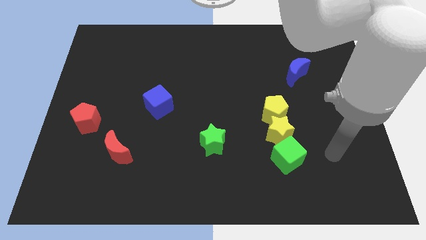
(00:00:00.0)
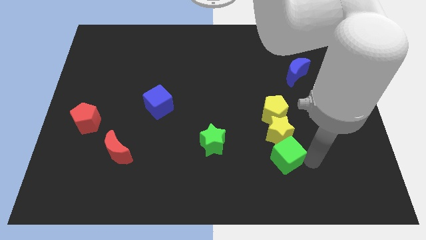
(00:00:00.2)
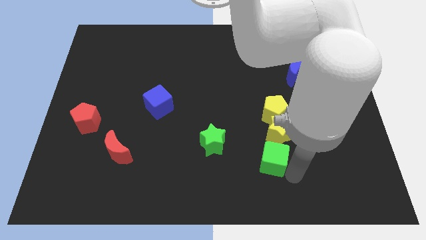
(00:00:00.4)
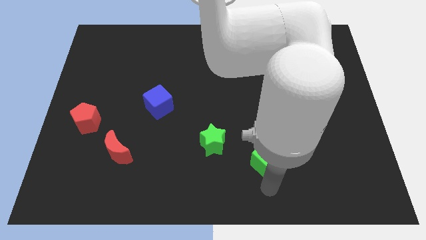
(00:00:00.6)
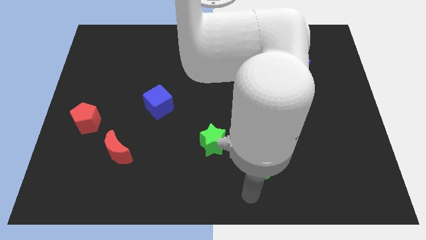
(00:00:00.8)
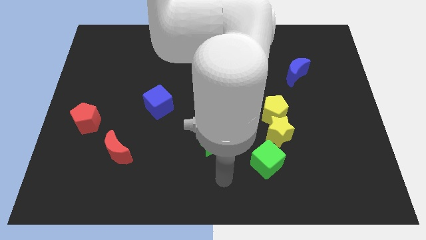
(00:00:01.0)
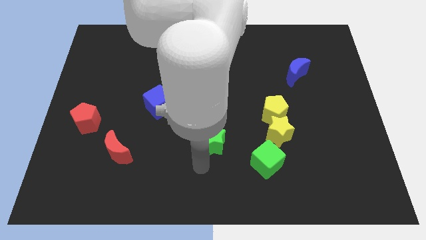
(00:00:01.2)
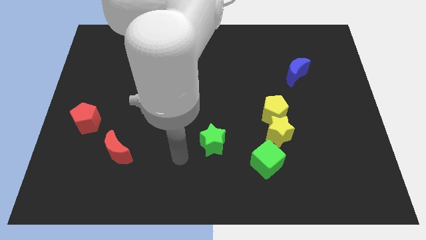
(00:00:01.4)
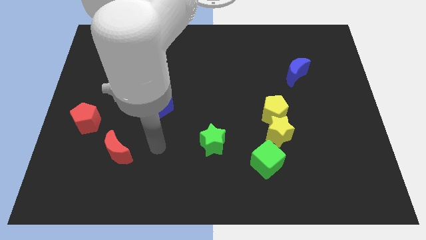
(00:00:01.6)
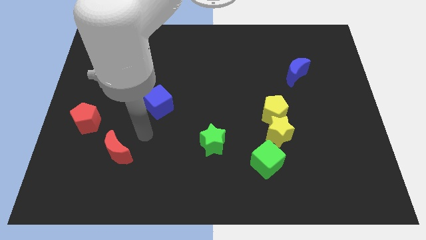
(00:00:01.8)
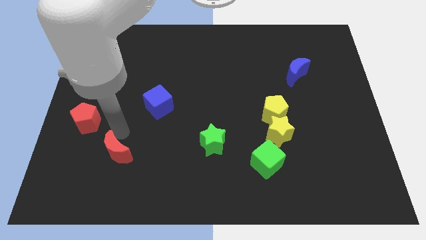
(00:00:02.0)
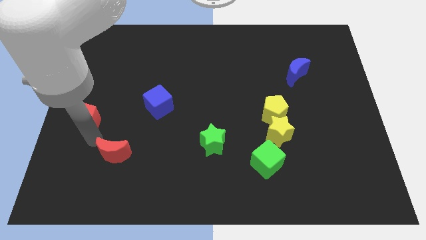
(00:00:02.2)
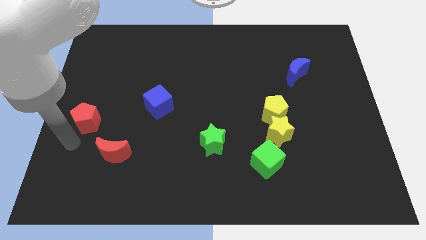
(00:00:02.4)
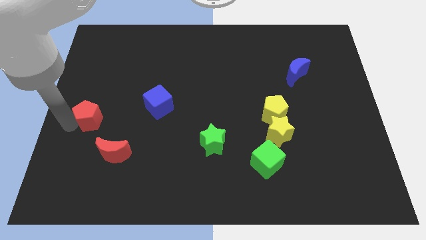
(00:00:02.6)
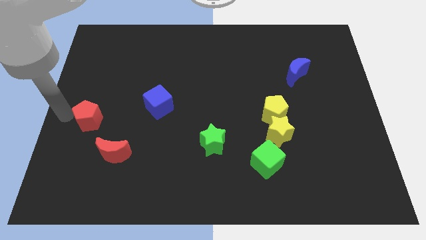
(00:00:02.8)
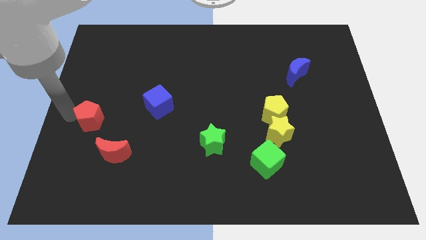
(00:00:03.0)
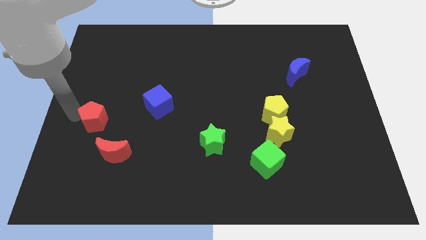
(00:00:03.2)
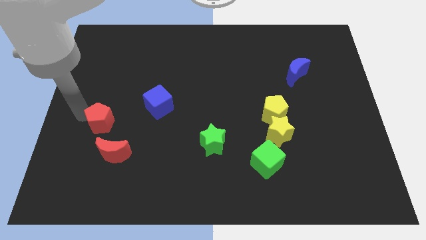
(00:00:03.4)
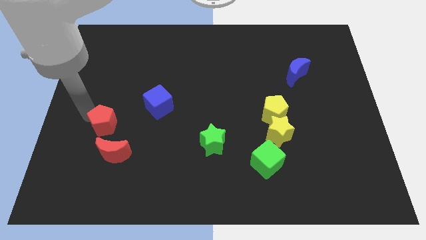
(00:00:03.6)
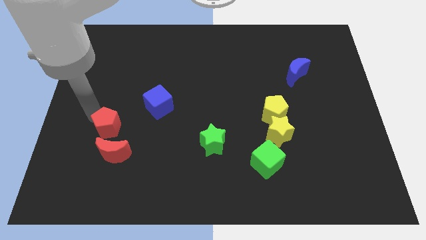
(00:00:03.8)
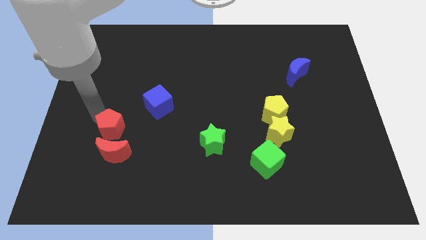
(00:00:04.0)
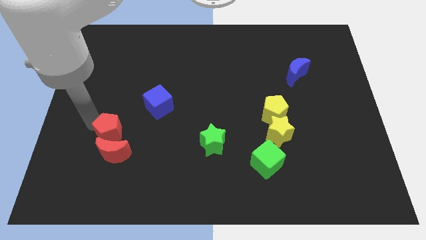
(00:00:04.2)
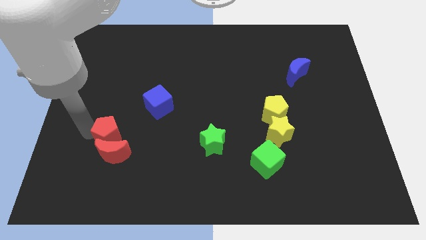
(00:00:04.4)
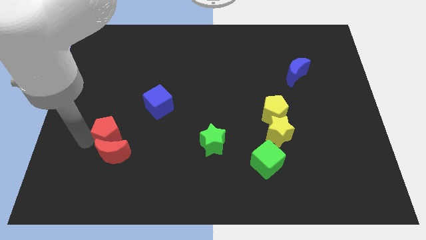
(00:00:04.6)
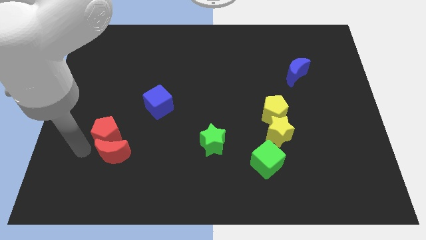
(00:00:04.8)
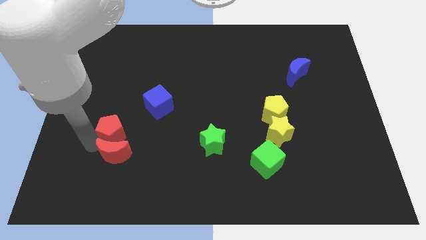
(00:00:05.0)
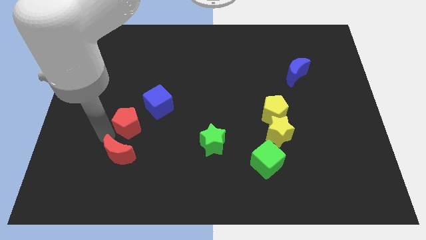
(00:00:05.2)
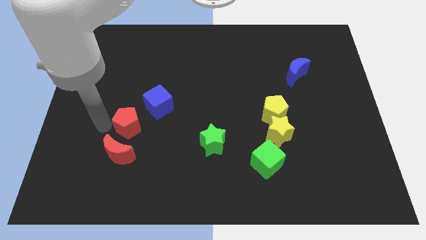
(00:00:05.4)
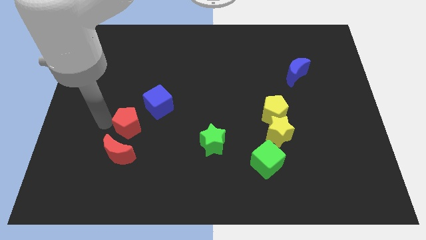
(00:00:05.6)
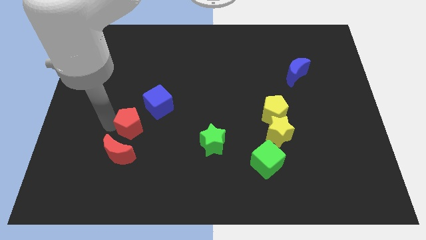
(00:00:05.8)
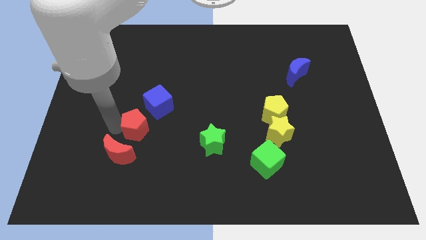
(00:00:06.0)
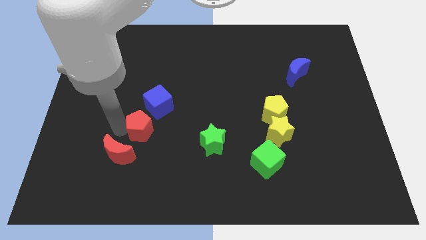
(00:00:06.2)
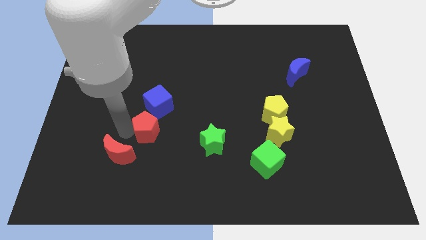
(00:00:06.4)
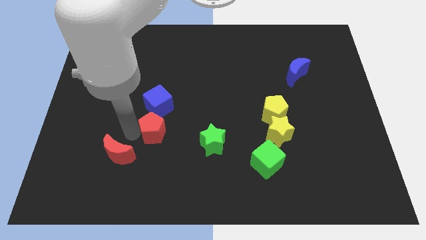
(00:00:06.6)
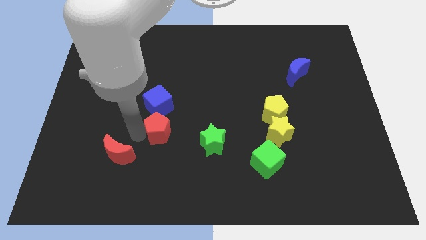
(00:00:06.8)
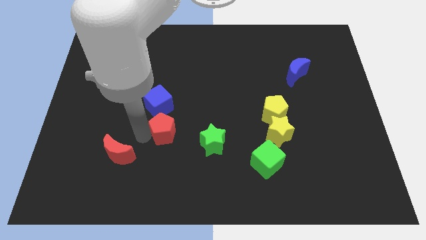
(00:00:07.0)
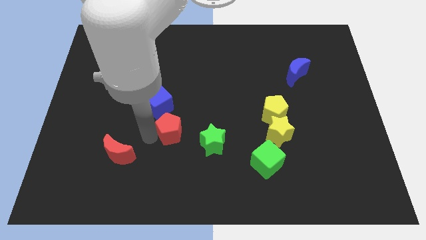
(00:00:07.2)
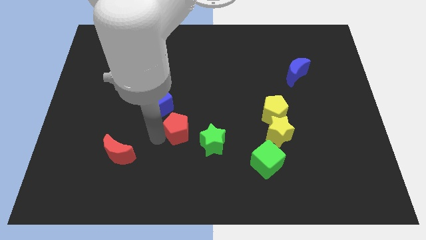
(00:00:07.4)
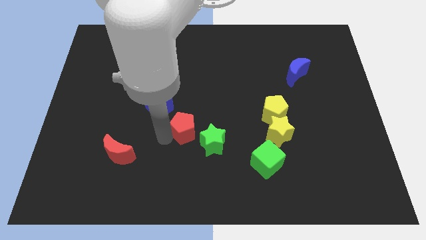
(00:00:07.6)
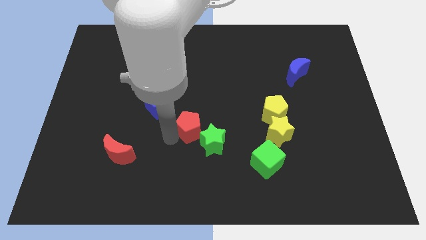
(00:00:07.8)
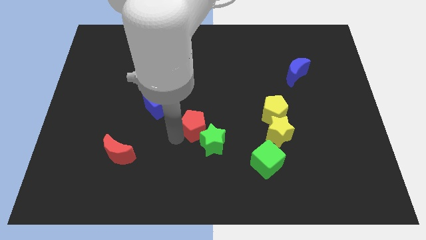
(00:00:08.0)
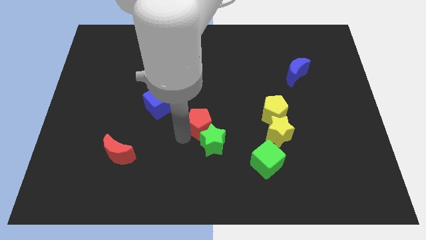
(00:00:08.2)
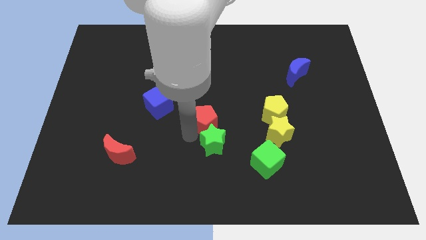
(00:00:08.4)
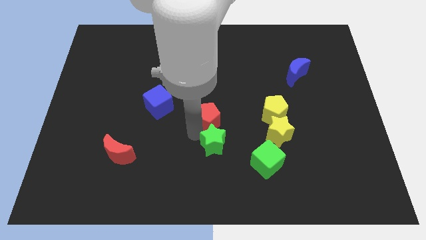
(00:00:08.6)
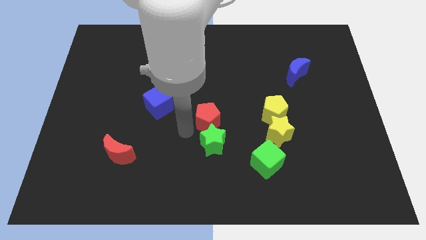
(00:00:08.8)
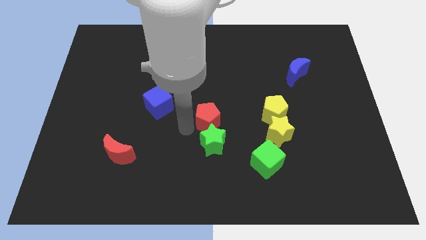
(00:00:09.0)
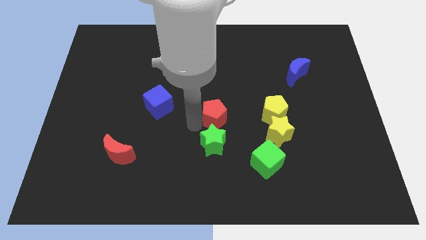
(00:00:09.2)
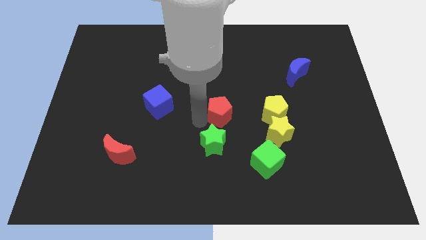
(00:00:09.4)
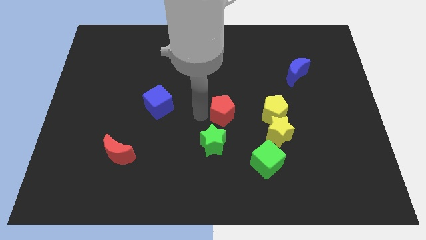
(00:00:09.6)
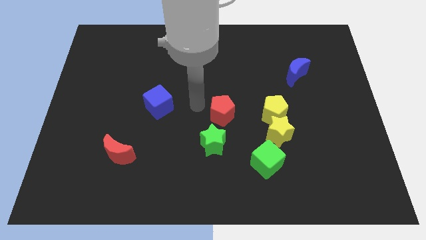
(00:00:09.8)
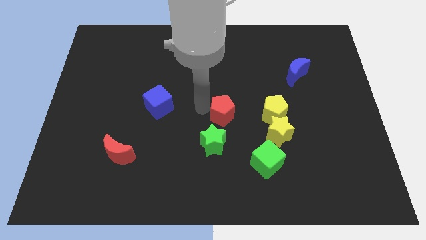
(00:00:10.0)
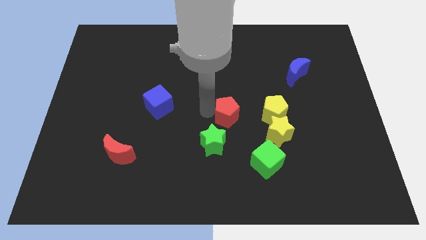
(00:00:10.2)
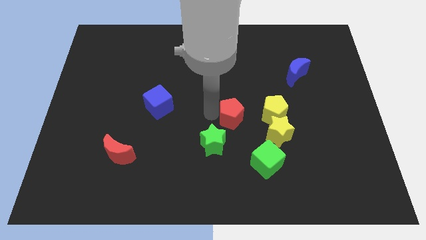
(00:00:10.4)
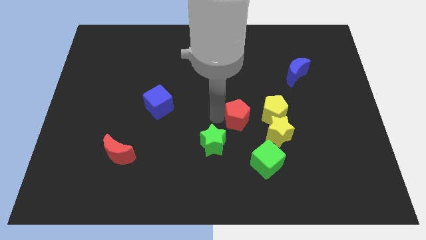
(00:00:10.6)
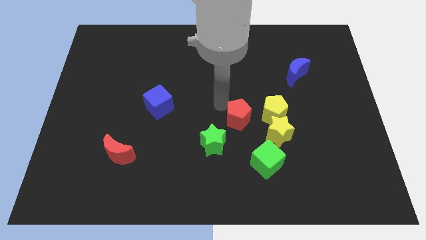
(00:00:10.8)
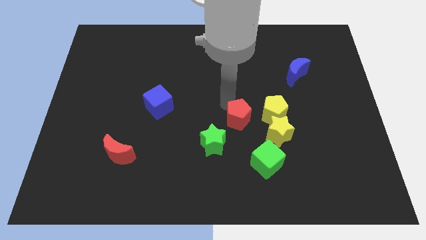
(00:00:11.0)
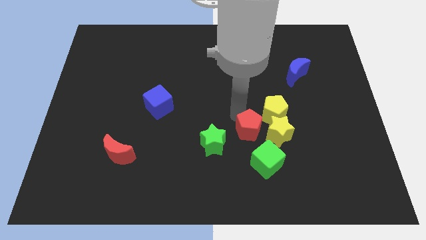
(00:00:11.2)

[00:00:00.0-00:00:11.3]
slide the red pentagon to the right side of the green star

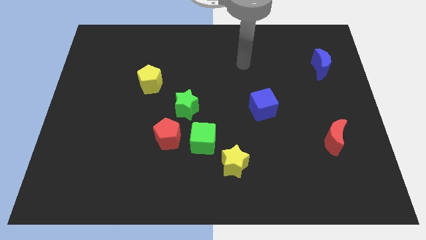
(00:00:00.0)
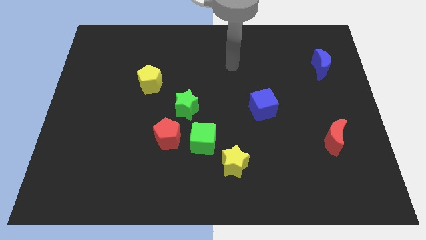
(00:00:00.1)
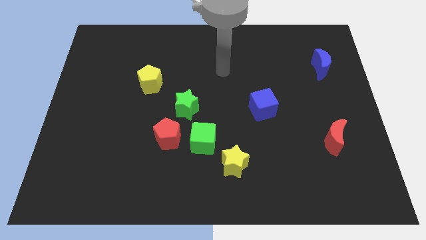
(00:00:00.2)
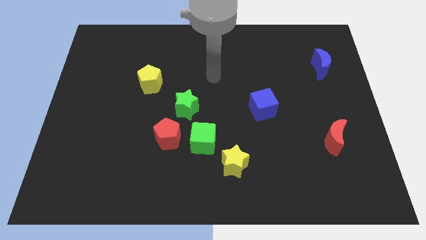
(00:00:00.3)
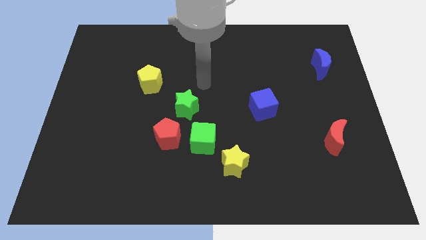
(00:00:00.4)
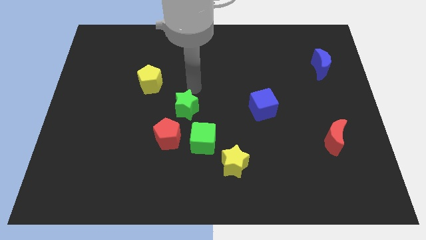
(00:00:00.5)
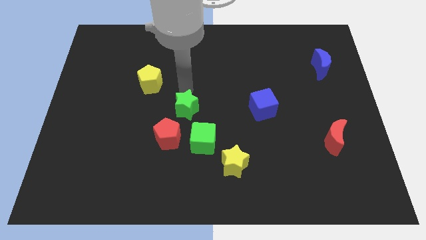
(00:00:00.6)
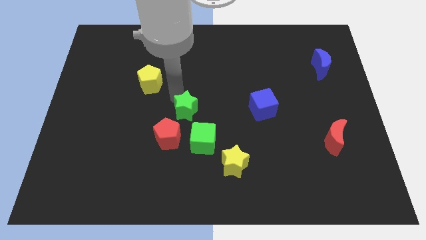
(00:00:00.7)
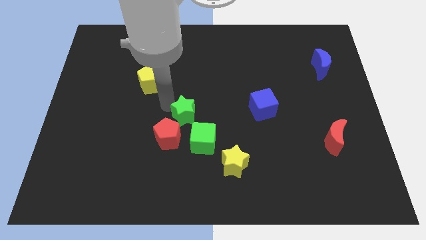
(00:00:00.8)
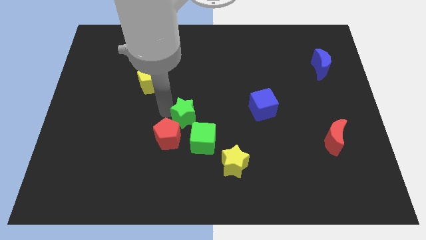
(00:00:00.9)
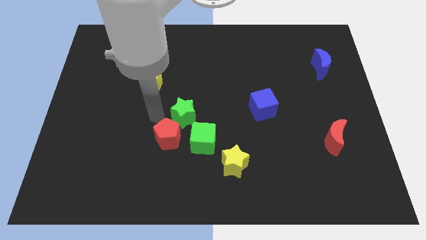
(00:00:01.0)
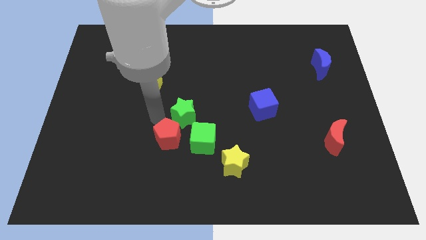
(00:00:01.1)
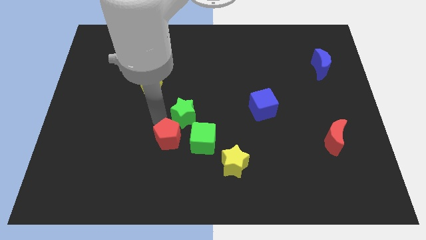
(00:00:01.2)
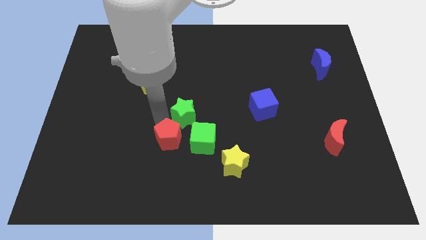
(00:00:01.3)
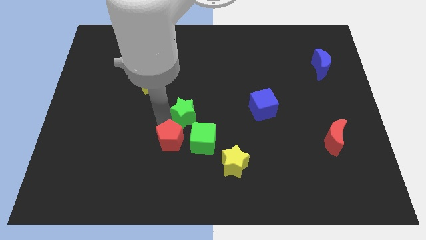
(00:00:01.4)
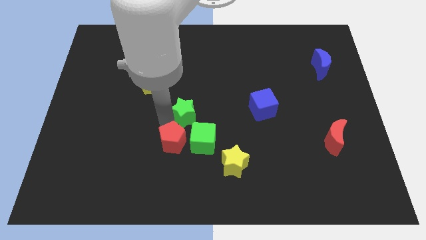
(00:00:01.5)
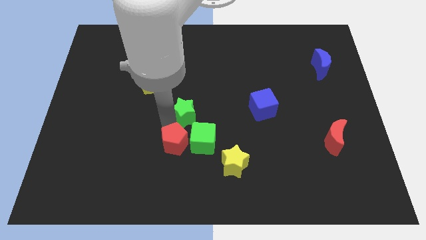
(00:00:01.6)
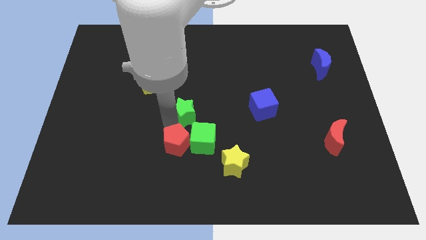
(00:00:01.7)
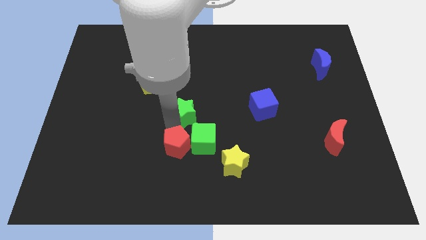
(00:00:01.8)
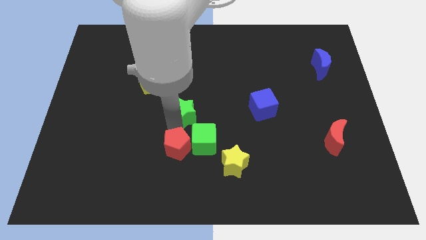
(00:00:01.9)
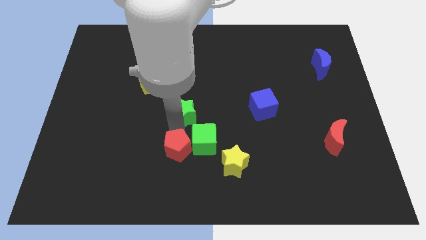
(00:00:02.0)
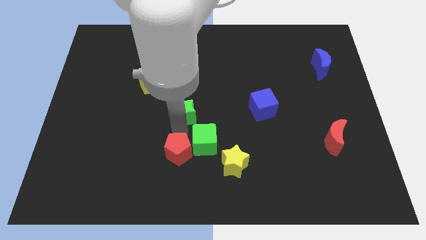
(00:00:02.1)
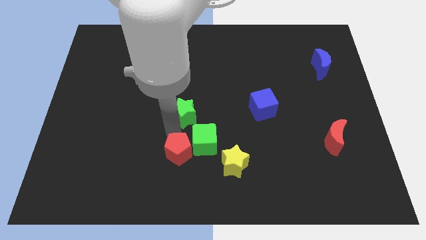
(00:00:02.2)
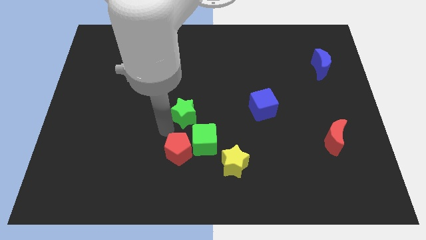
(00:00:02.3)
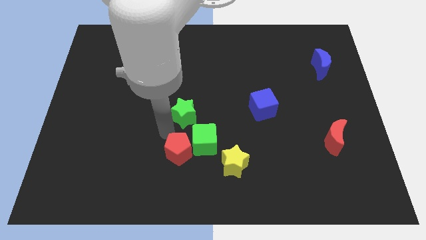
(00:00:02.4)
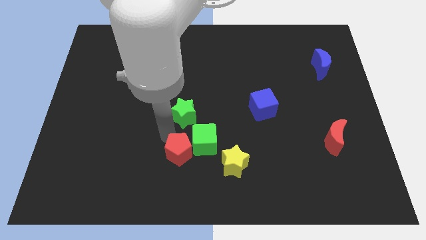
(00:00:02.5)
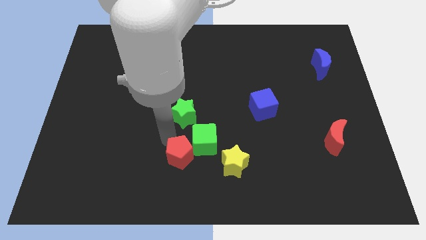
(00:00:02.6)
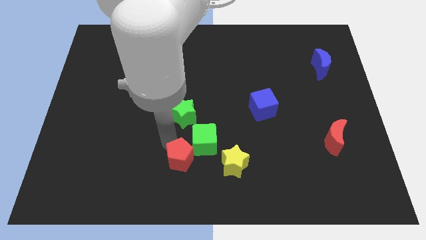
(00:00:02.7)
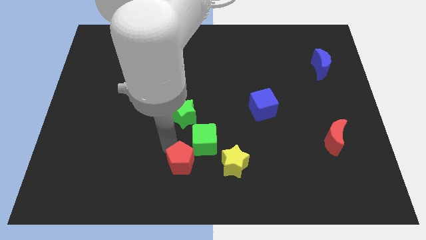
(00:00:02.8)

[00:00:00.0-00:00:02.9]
move the red pentagon below the green cube
